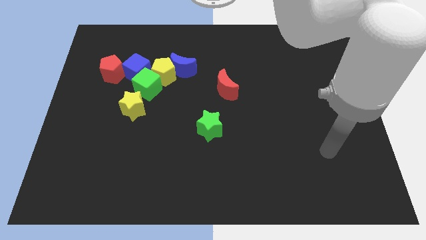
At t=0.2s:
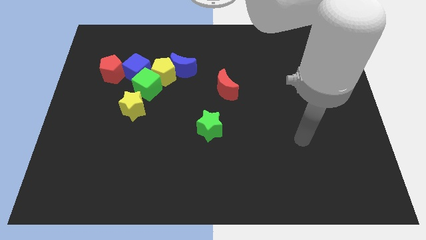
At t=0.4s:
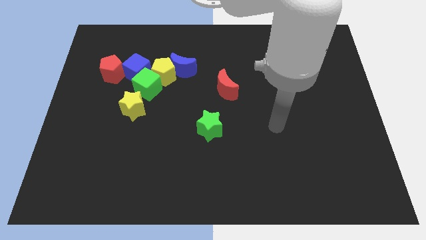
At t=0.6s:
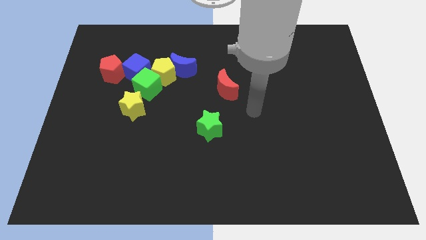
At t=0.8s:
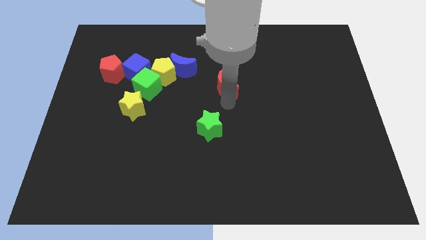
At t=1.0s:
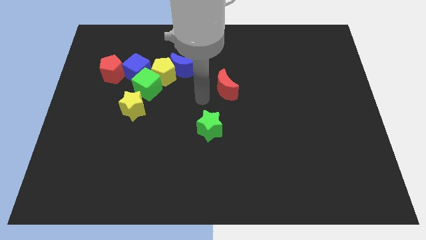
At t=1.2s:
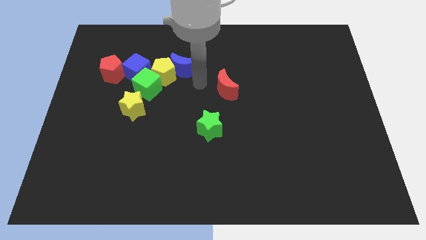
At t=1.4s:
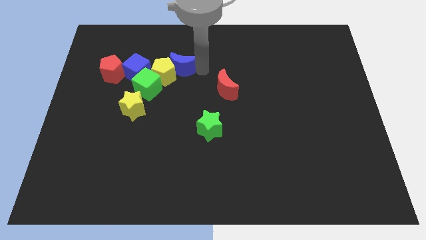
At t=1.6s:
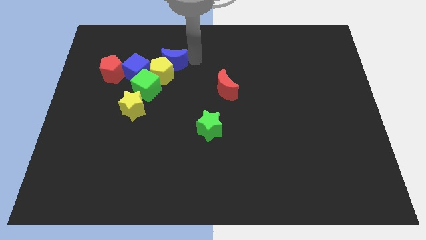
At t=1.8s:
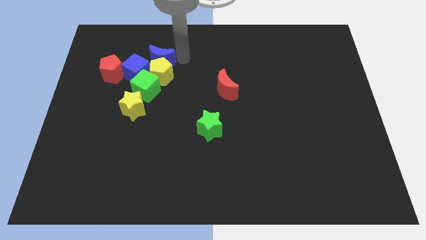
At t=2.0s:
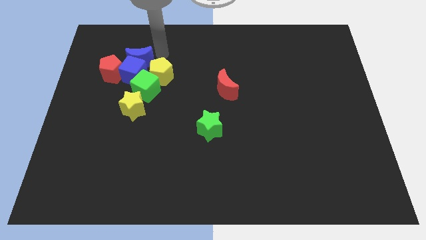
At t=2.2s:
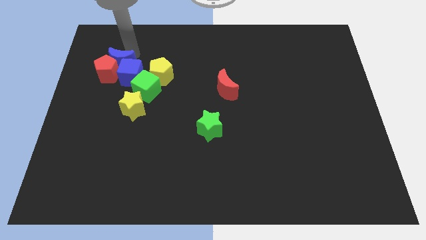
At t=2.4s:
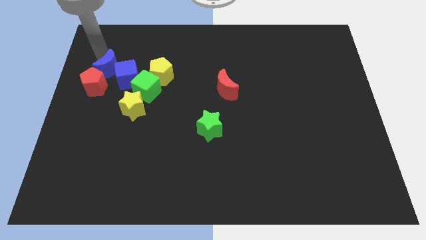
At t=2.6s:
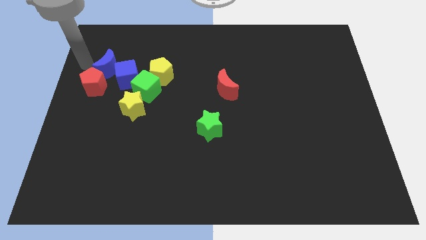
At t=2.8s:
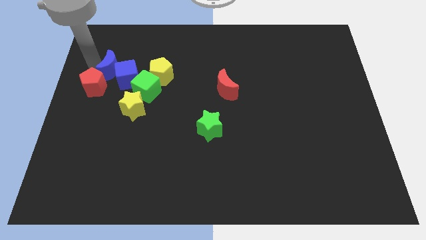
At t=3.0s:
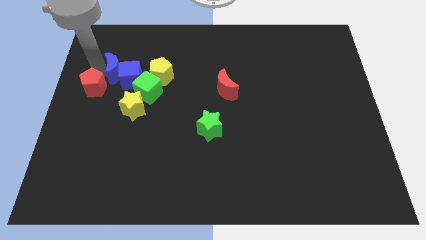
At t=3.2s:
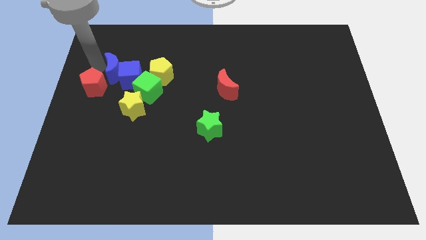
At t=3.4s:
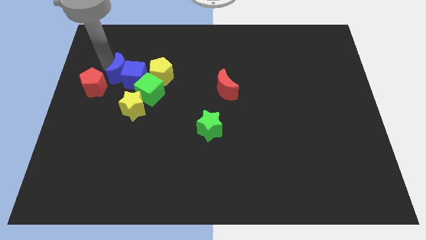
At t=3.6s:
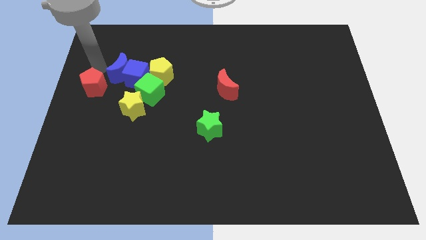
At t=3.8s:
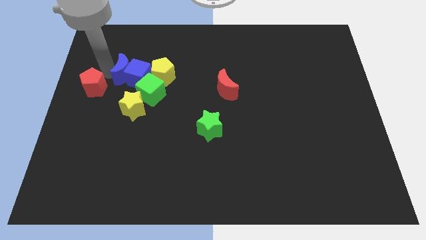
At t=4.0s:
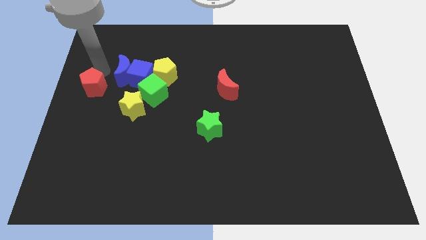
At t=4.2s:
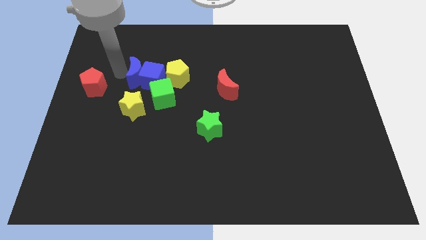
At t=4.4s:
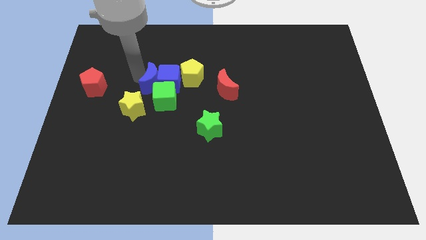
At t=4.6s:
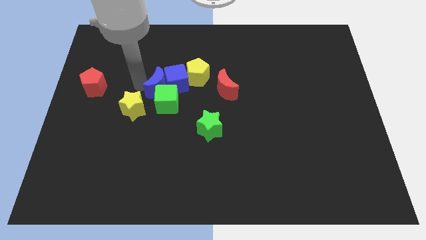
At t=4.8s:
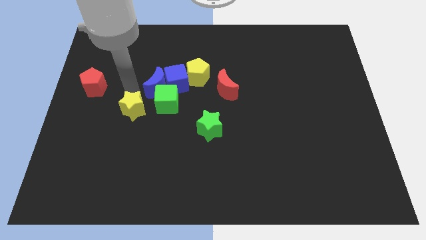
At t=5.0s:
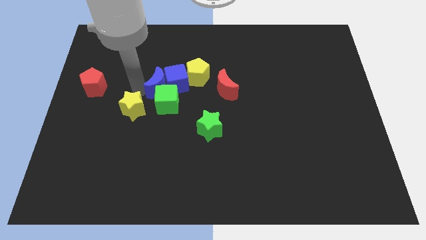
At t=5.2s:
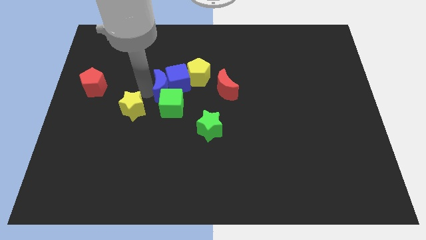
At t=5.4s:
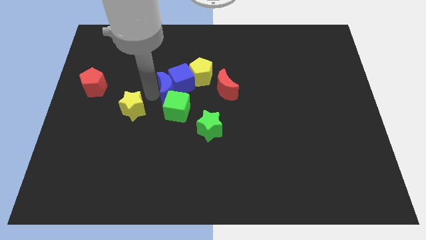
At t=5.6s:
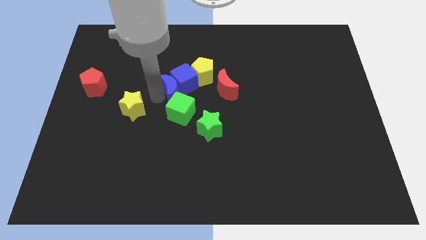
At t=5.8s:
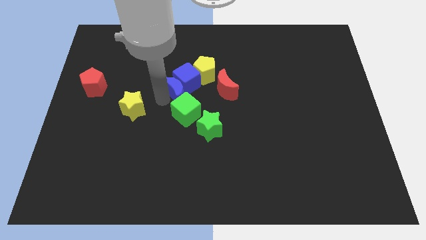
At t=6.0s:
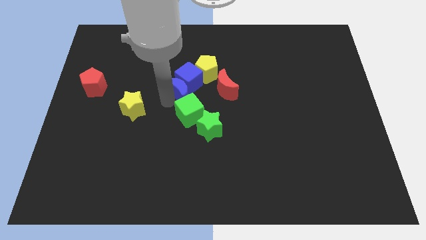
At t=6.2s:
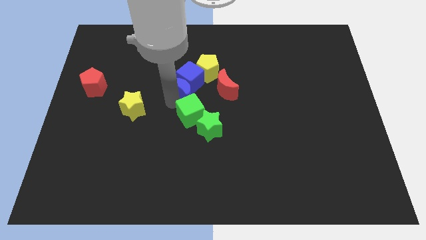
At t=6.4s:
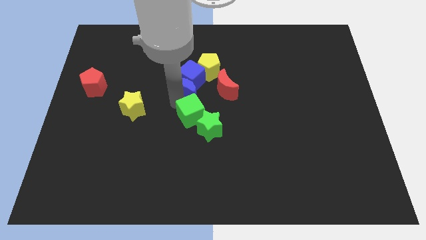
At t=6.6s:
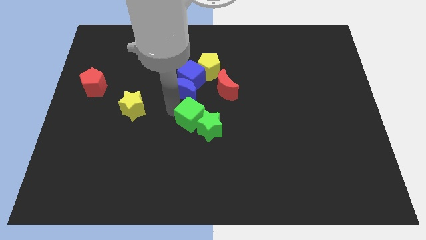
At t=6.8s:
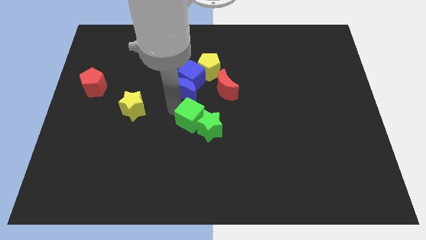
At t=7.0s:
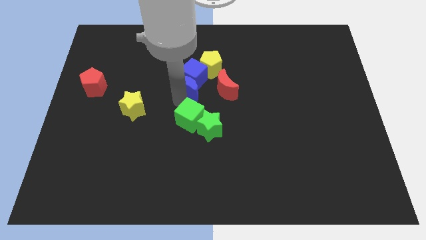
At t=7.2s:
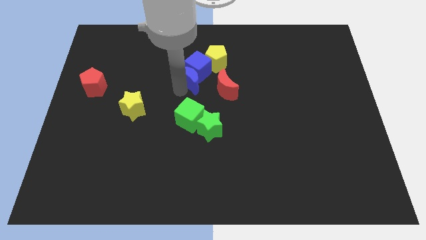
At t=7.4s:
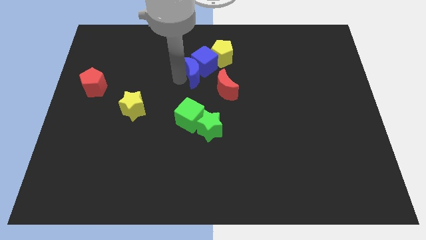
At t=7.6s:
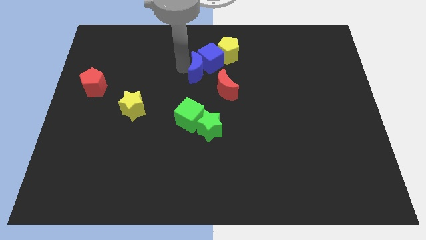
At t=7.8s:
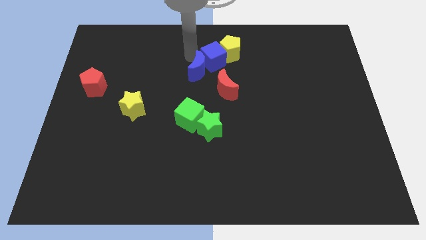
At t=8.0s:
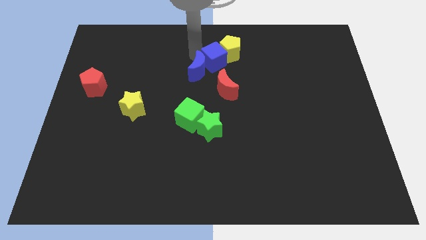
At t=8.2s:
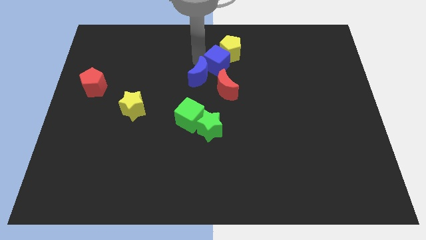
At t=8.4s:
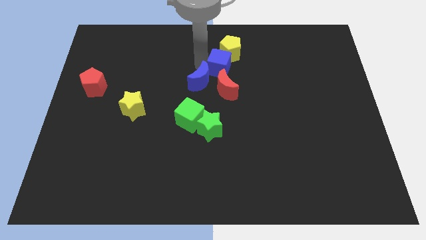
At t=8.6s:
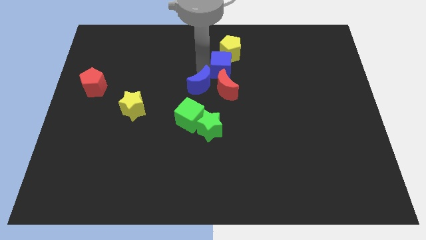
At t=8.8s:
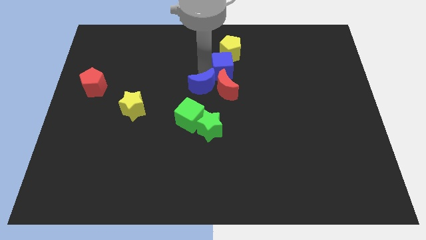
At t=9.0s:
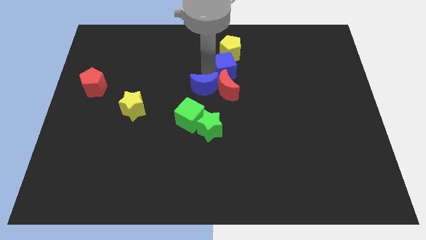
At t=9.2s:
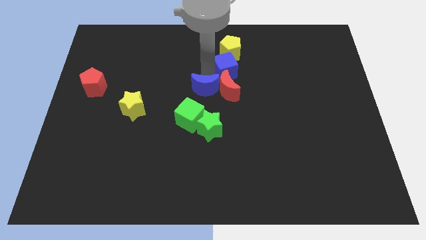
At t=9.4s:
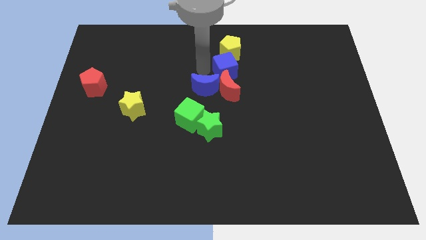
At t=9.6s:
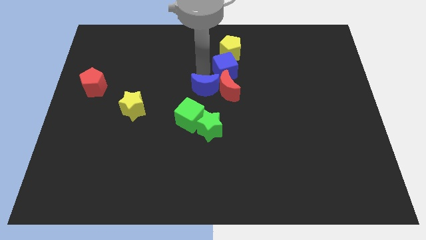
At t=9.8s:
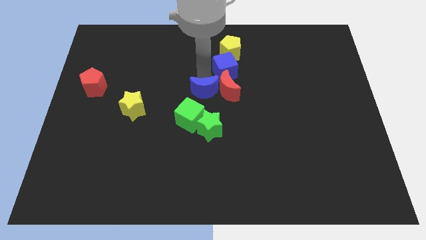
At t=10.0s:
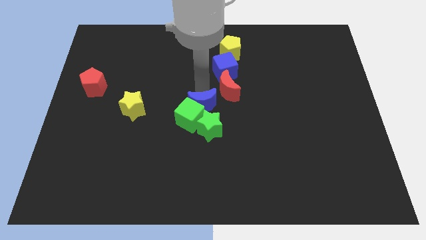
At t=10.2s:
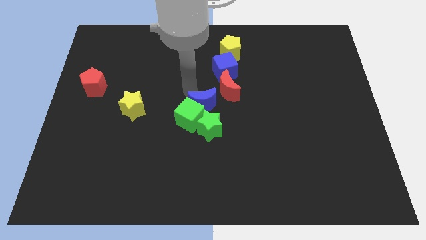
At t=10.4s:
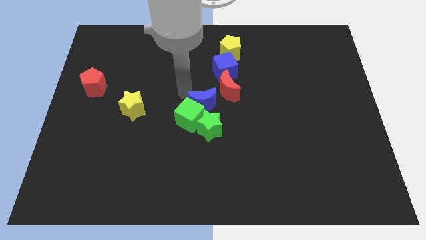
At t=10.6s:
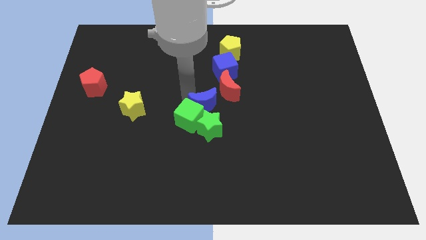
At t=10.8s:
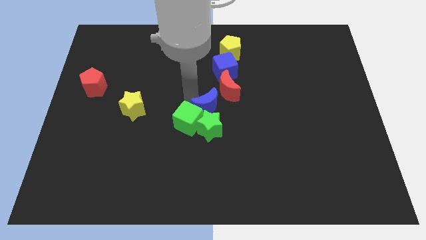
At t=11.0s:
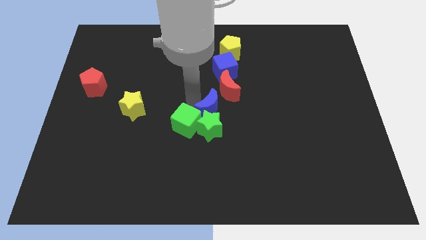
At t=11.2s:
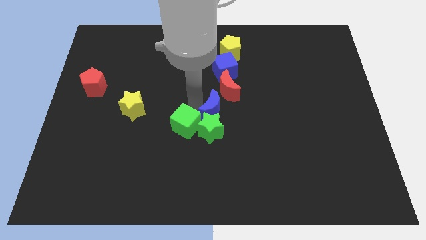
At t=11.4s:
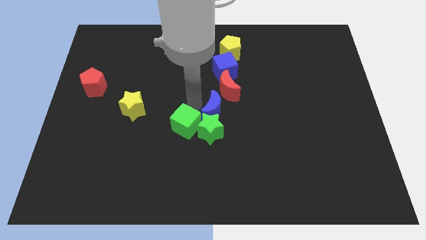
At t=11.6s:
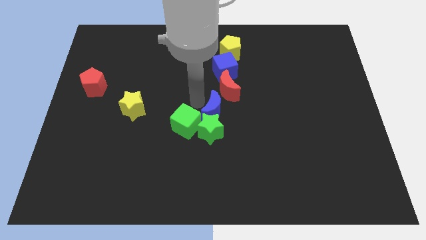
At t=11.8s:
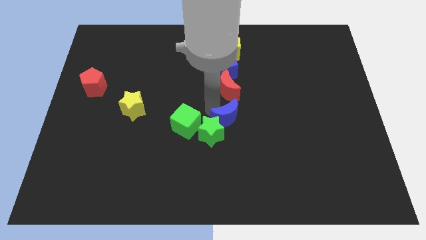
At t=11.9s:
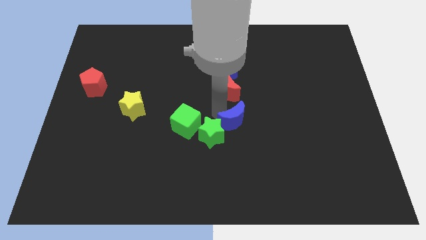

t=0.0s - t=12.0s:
slide the blue moon downwards and to the right diagonally

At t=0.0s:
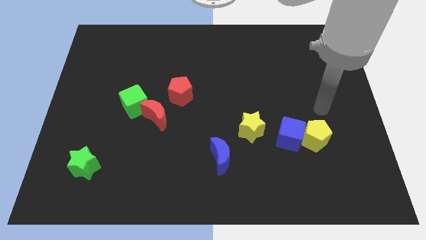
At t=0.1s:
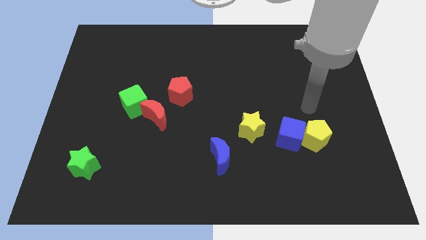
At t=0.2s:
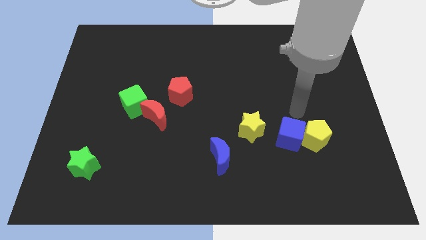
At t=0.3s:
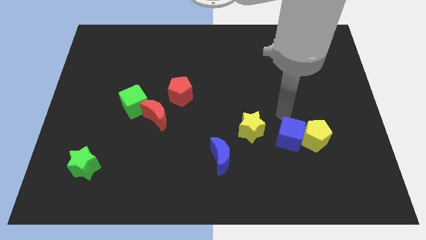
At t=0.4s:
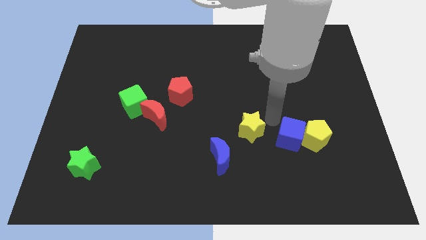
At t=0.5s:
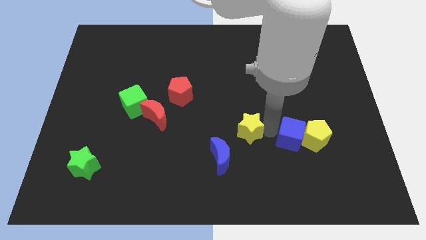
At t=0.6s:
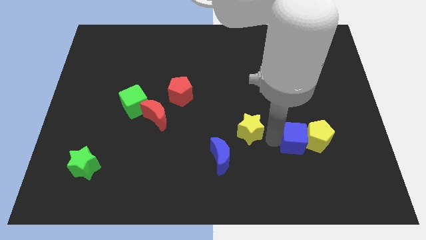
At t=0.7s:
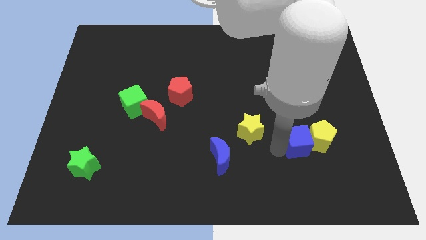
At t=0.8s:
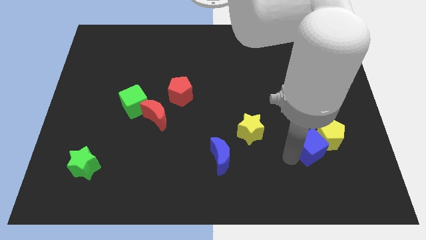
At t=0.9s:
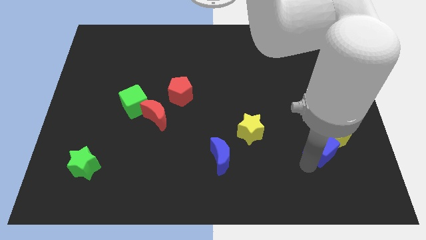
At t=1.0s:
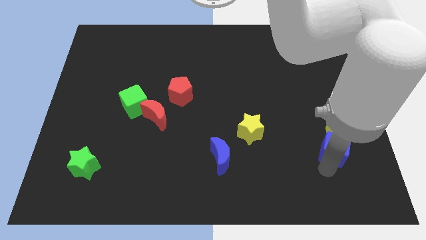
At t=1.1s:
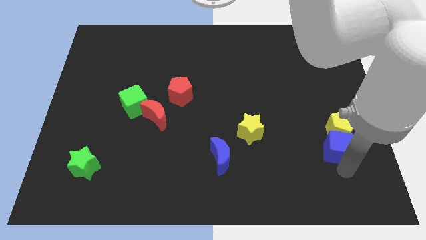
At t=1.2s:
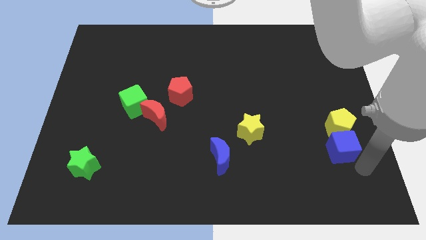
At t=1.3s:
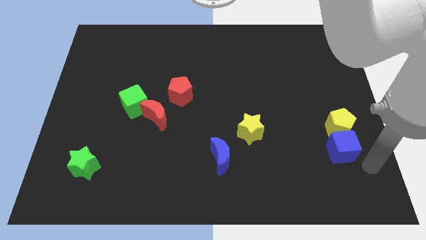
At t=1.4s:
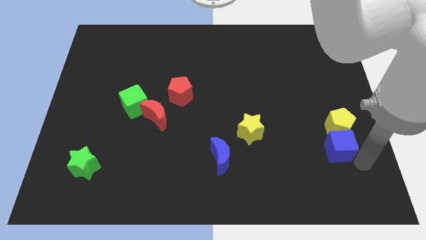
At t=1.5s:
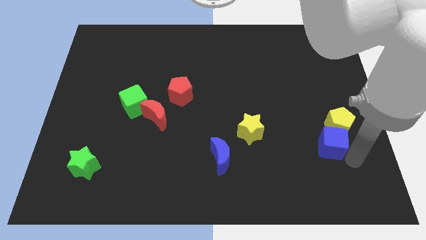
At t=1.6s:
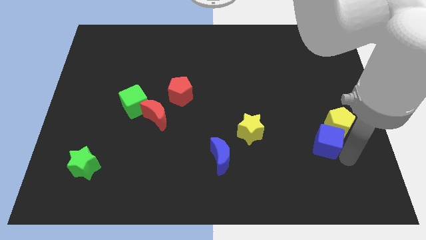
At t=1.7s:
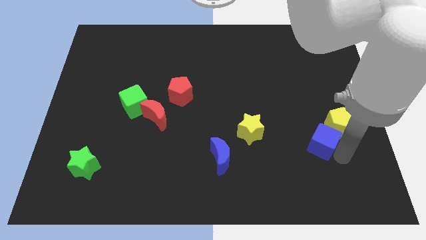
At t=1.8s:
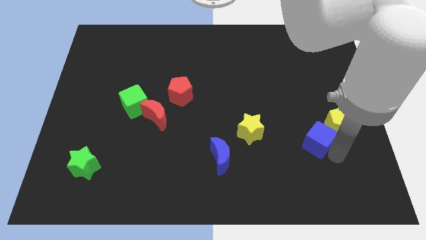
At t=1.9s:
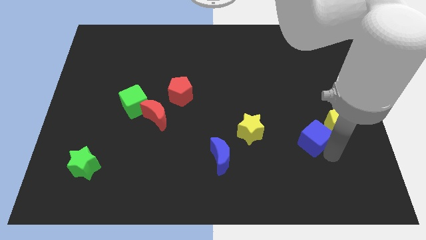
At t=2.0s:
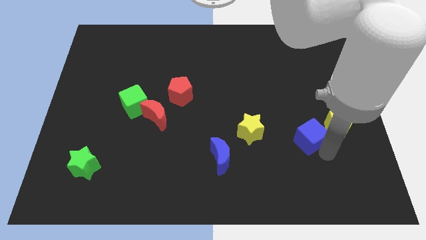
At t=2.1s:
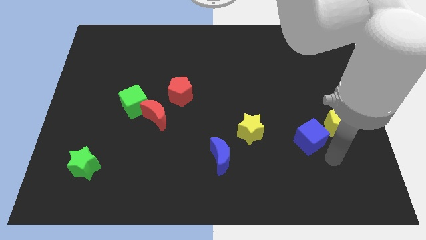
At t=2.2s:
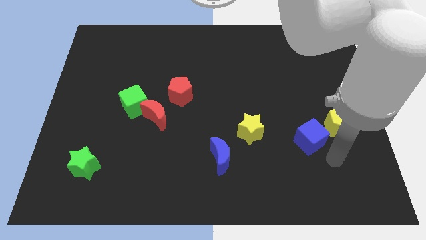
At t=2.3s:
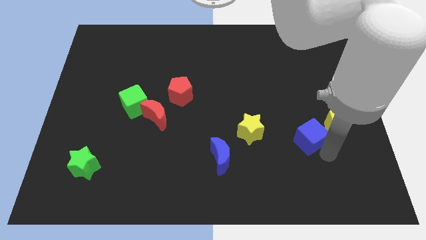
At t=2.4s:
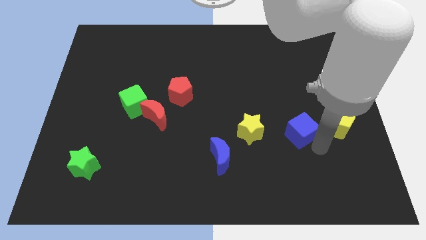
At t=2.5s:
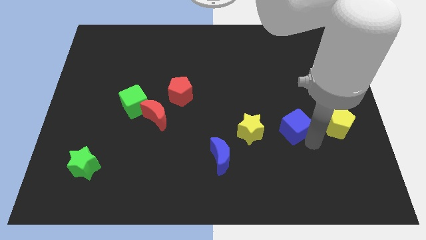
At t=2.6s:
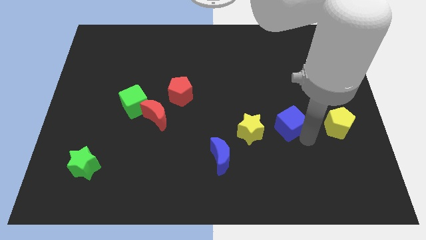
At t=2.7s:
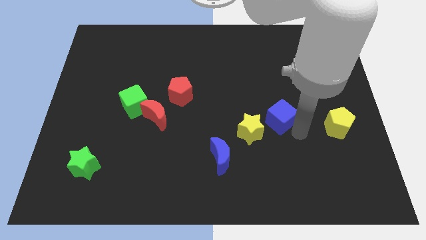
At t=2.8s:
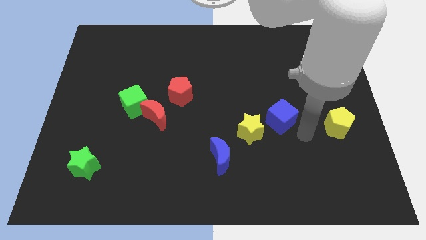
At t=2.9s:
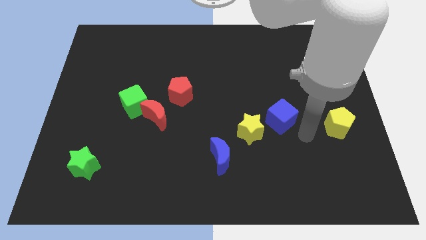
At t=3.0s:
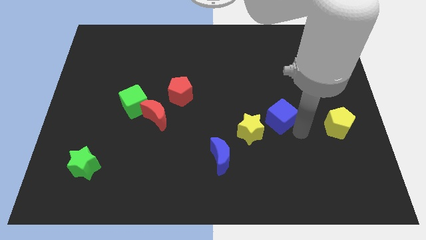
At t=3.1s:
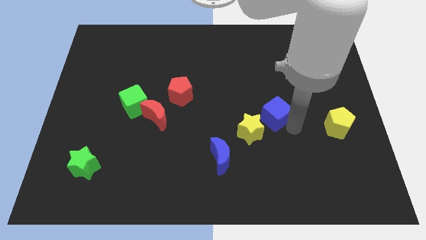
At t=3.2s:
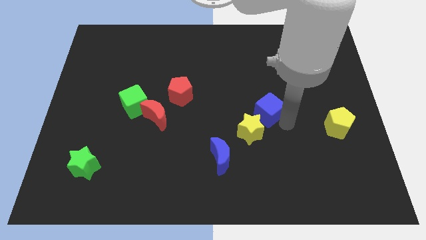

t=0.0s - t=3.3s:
push the blue cube a bit up and then left
